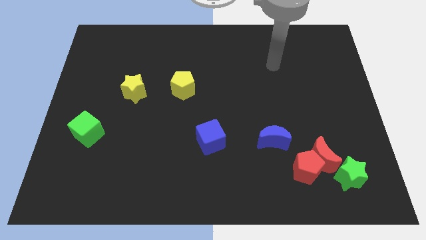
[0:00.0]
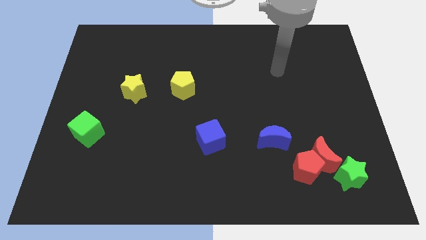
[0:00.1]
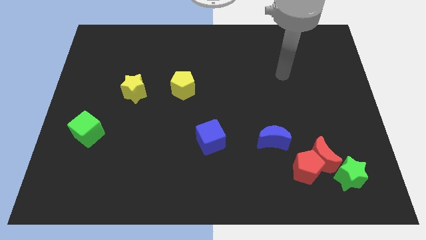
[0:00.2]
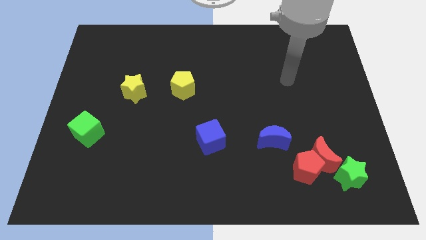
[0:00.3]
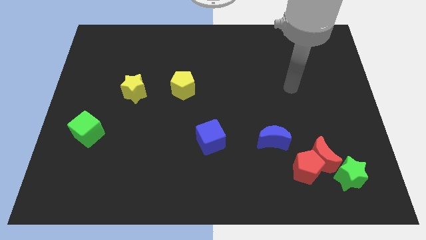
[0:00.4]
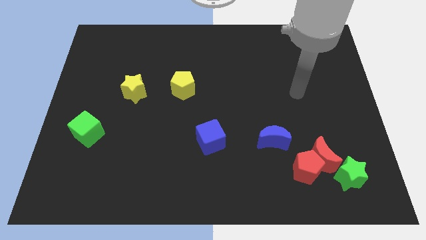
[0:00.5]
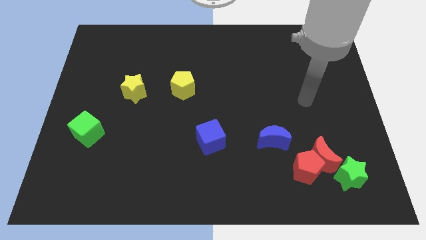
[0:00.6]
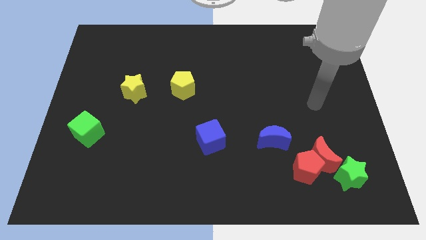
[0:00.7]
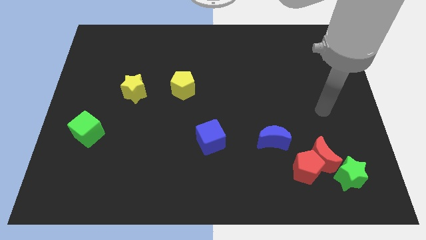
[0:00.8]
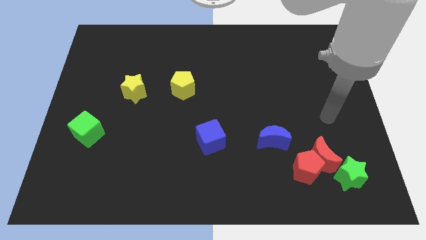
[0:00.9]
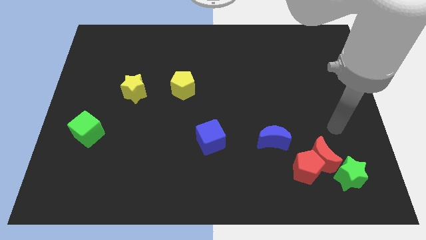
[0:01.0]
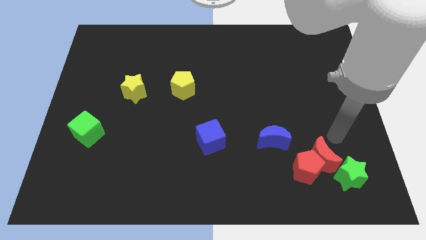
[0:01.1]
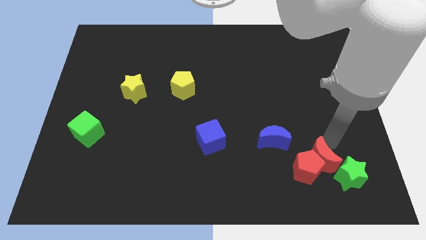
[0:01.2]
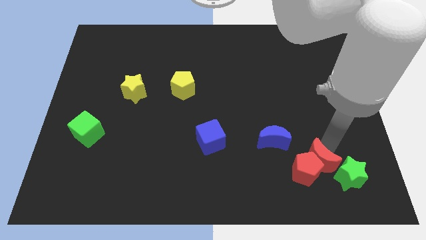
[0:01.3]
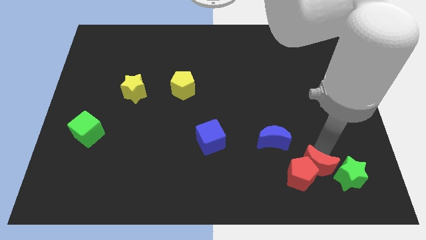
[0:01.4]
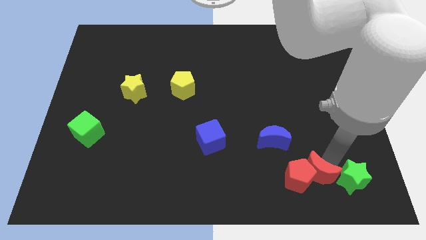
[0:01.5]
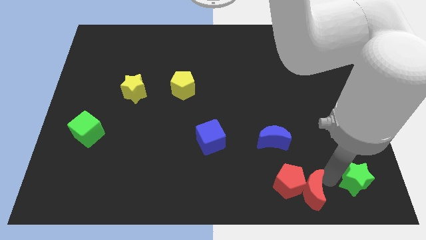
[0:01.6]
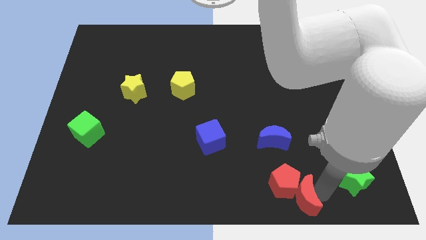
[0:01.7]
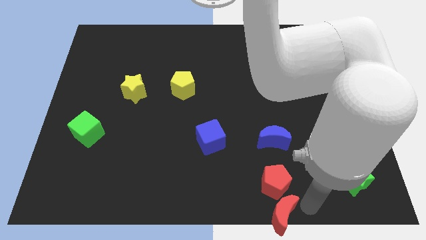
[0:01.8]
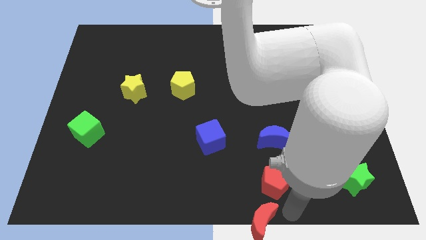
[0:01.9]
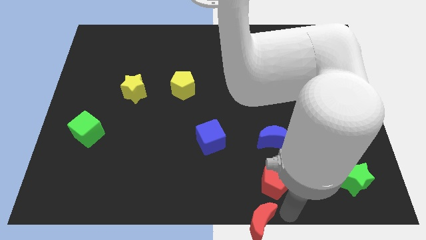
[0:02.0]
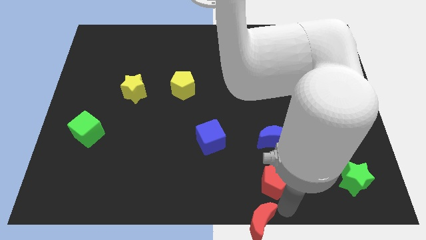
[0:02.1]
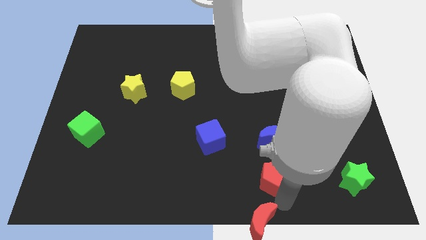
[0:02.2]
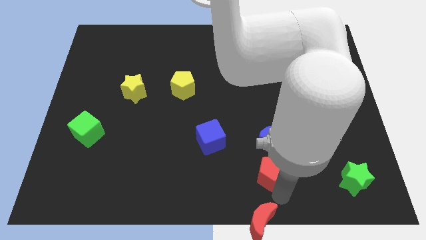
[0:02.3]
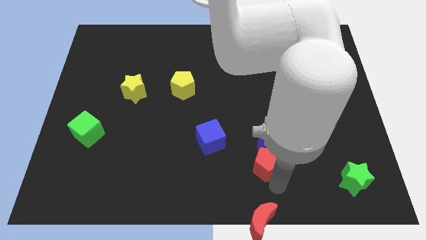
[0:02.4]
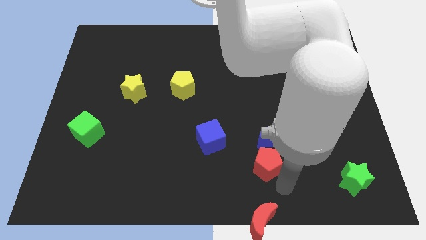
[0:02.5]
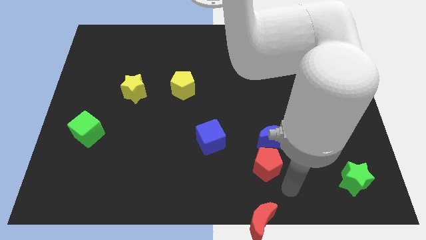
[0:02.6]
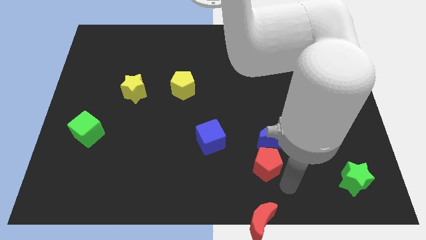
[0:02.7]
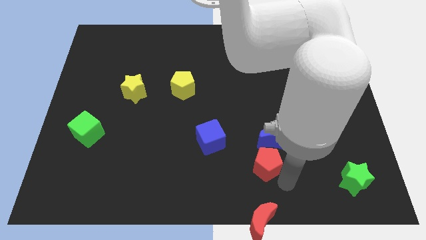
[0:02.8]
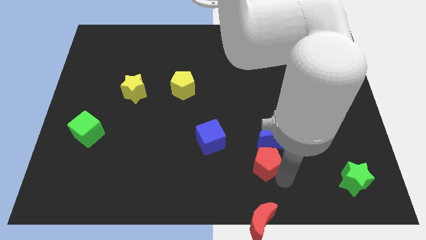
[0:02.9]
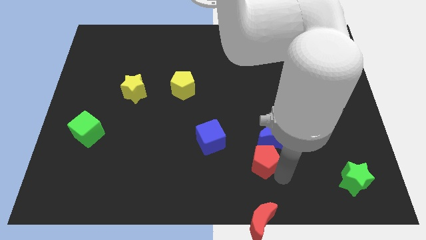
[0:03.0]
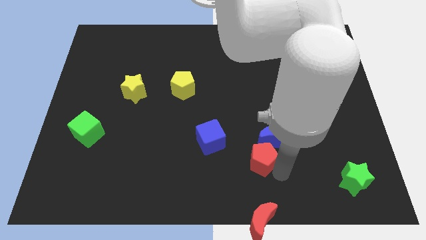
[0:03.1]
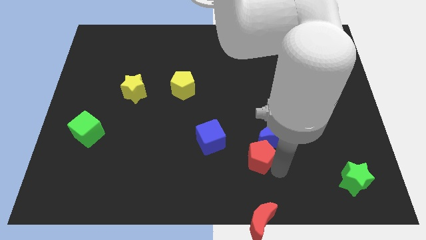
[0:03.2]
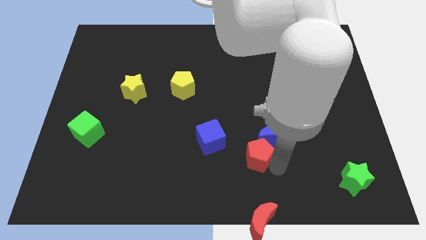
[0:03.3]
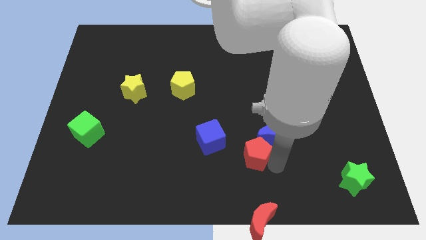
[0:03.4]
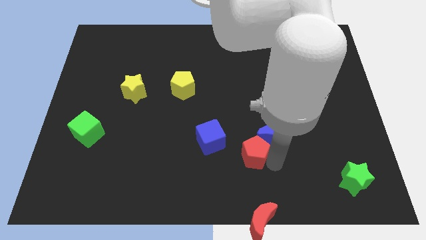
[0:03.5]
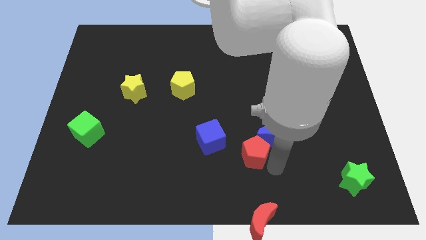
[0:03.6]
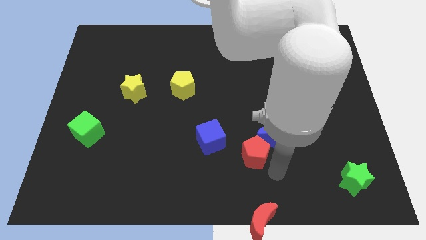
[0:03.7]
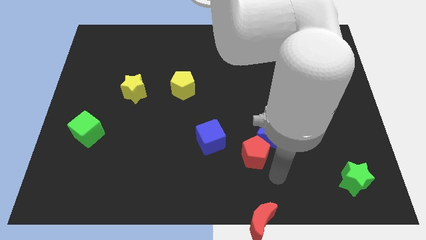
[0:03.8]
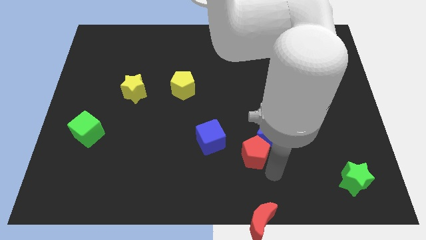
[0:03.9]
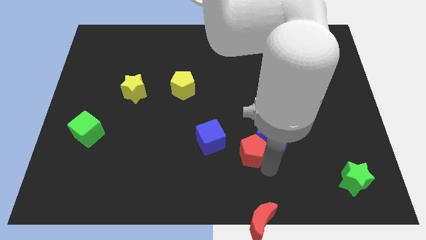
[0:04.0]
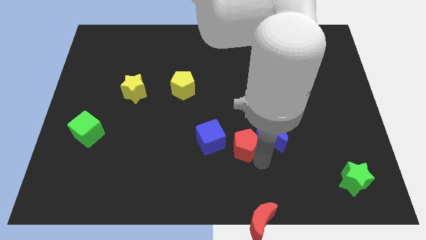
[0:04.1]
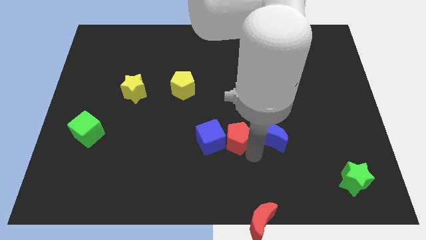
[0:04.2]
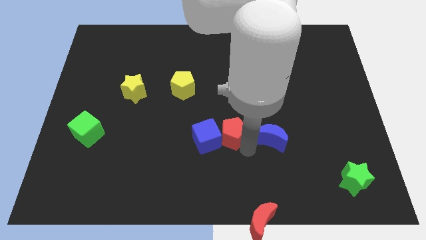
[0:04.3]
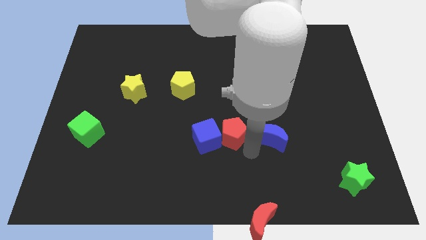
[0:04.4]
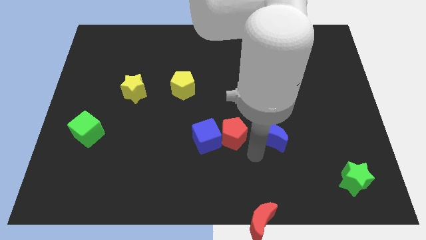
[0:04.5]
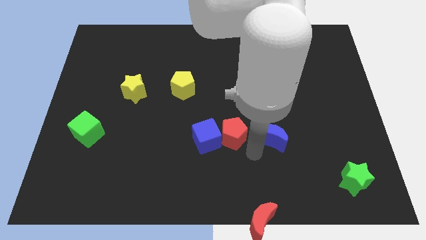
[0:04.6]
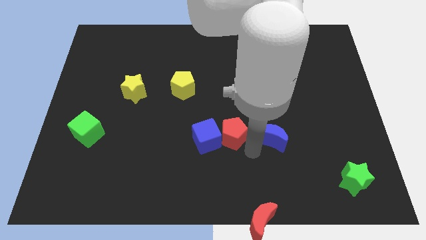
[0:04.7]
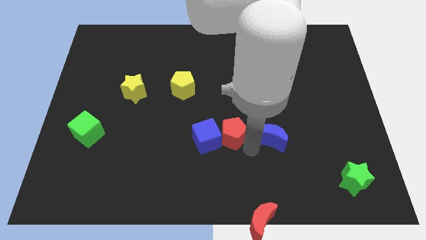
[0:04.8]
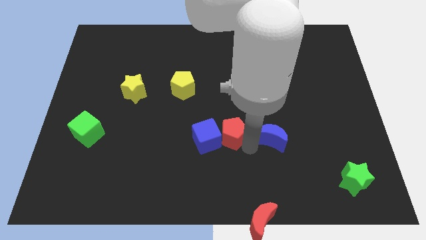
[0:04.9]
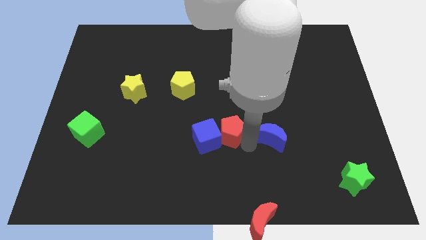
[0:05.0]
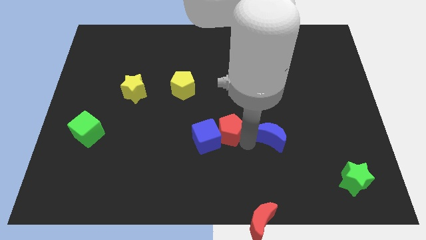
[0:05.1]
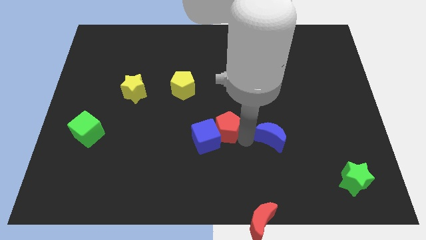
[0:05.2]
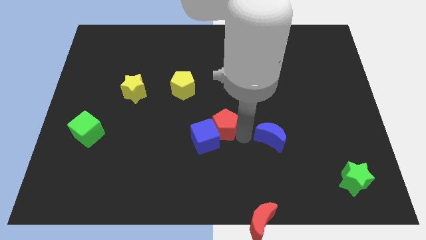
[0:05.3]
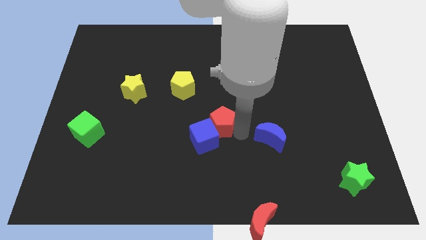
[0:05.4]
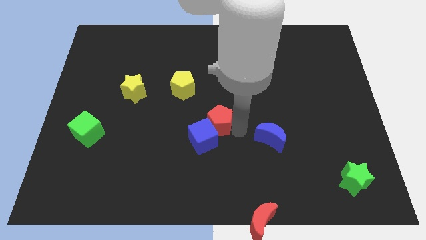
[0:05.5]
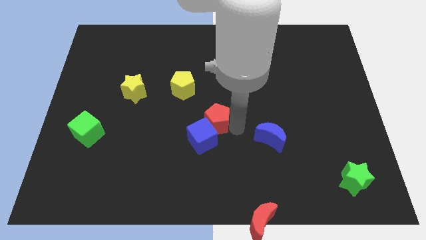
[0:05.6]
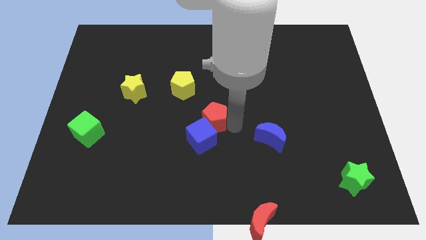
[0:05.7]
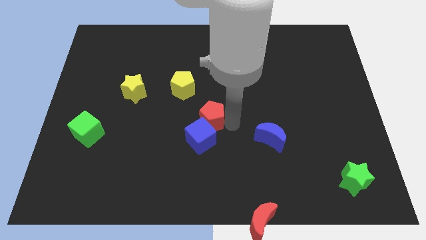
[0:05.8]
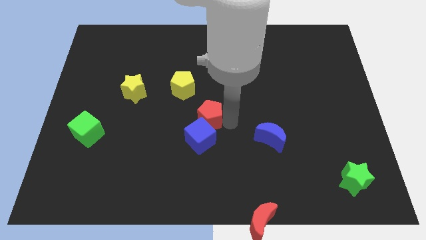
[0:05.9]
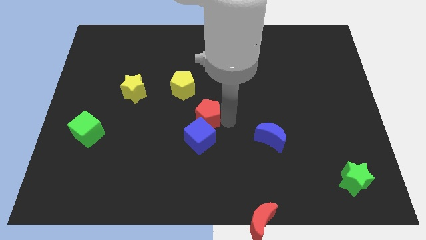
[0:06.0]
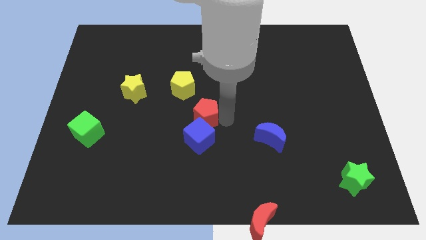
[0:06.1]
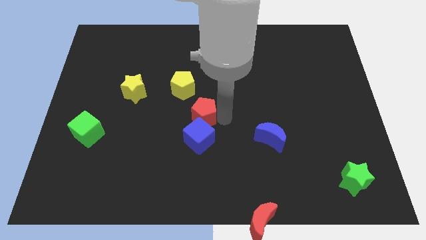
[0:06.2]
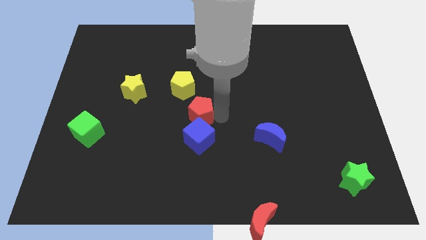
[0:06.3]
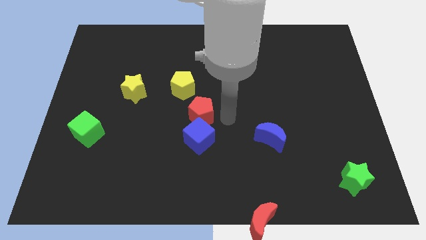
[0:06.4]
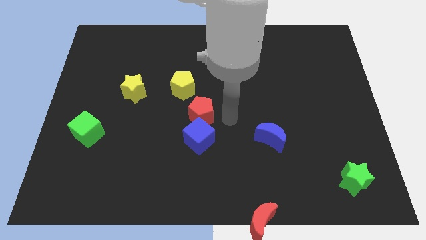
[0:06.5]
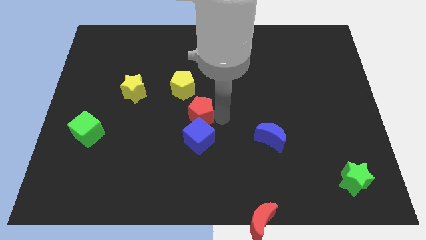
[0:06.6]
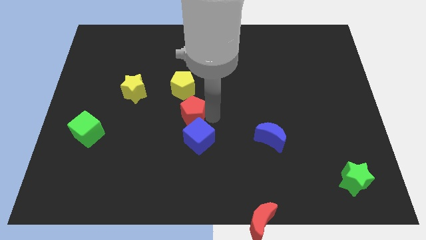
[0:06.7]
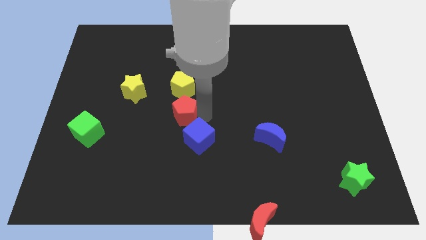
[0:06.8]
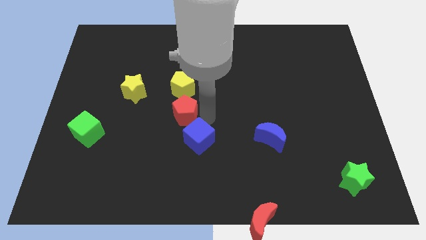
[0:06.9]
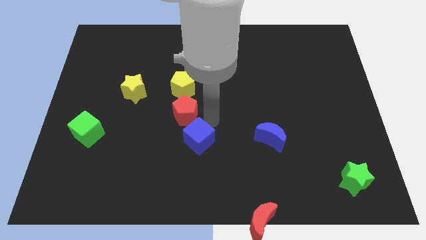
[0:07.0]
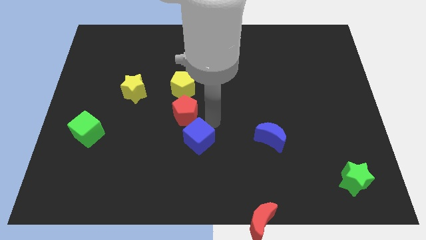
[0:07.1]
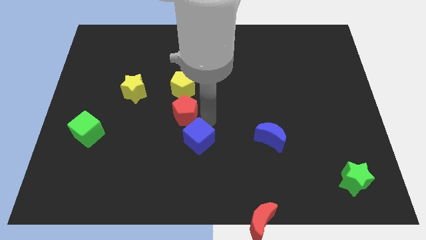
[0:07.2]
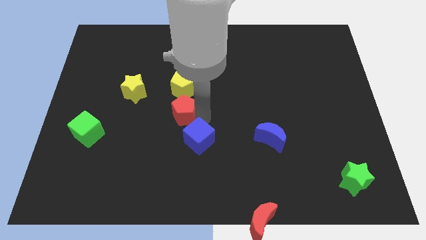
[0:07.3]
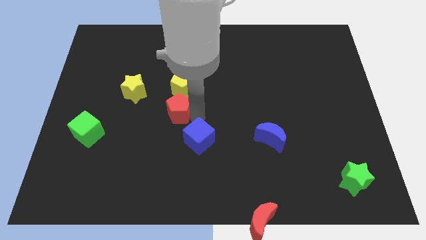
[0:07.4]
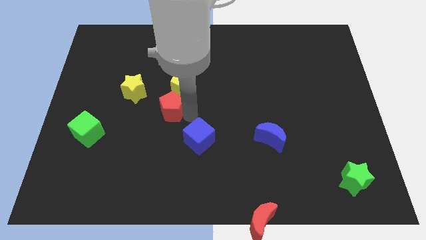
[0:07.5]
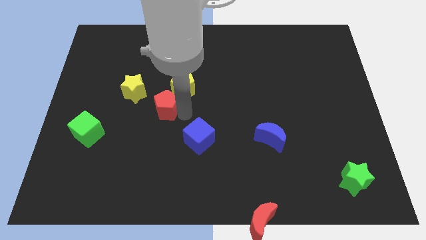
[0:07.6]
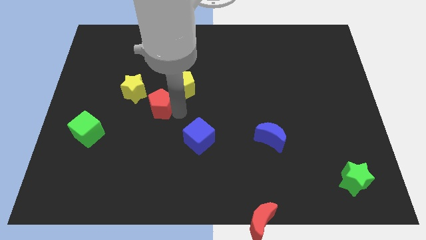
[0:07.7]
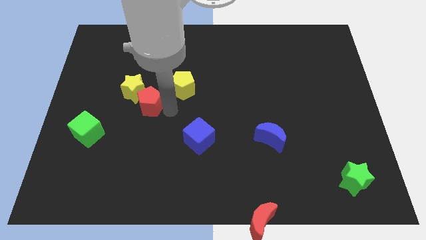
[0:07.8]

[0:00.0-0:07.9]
slide the red pentagon to the yellow star
